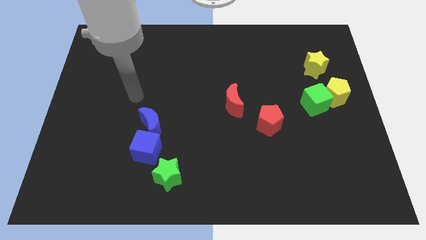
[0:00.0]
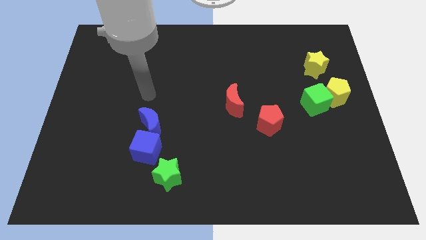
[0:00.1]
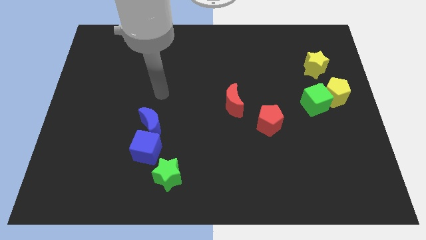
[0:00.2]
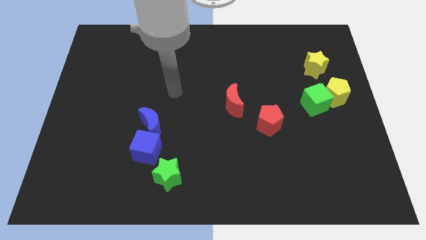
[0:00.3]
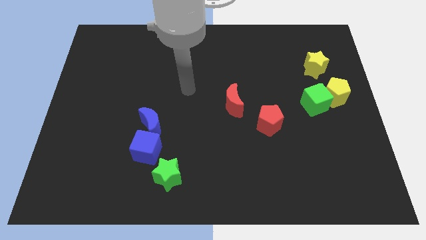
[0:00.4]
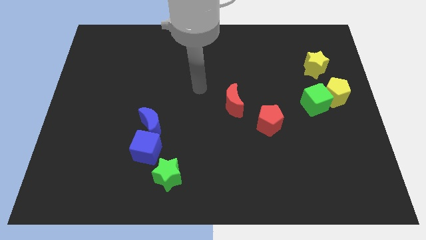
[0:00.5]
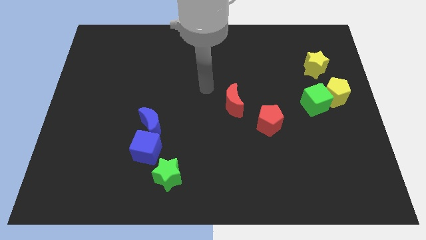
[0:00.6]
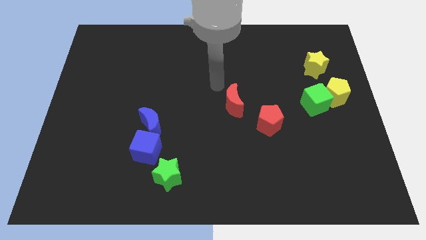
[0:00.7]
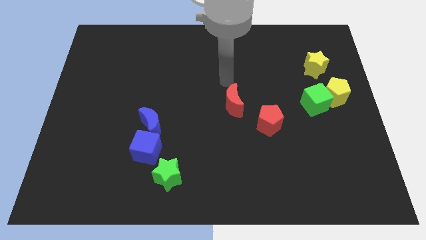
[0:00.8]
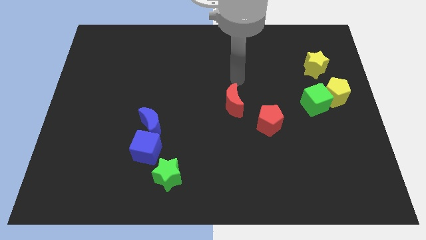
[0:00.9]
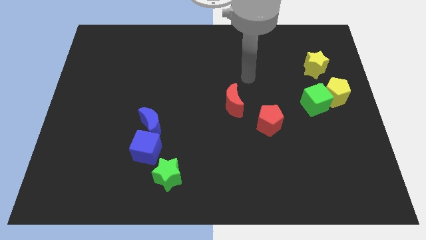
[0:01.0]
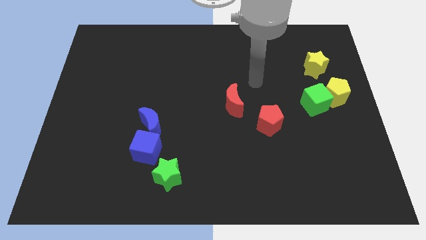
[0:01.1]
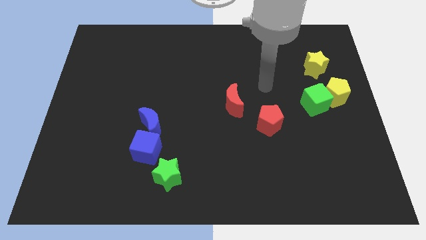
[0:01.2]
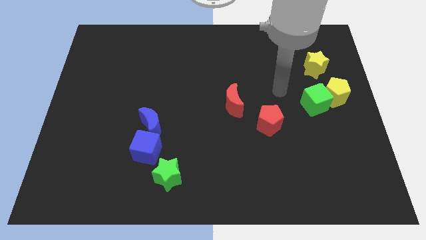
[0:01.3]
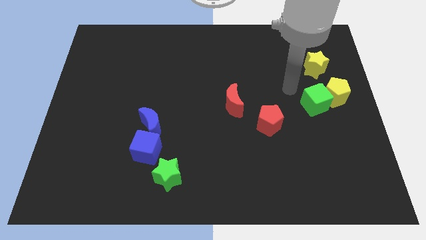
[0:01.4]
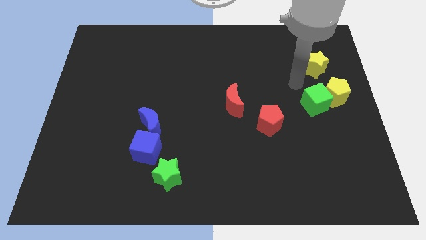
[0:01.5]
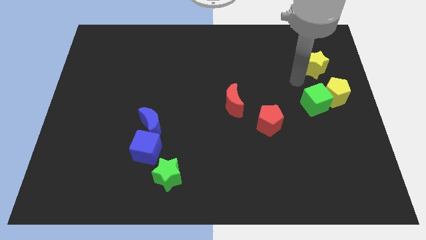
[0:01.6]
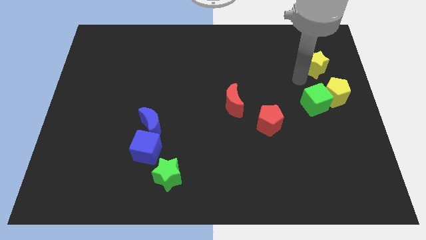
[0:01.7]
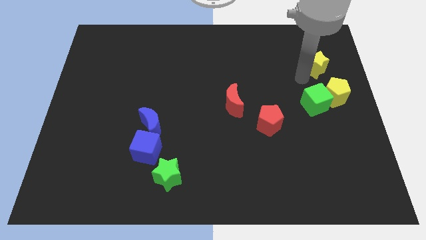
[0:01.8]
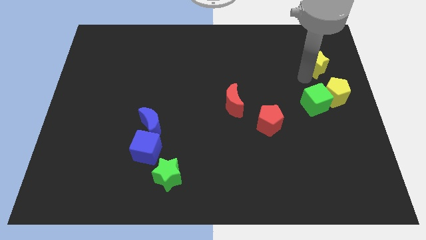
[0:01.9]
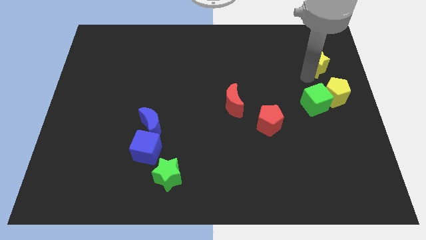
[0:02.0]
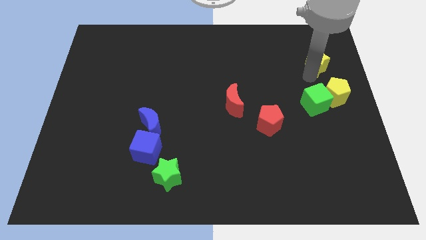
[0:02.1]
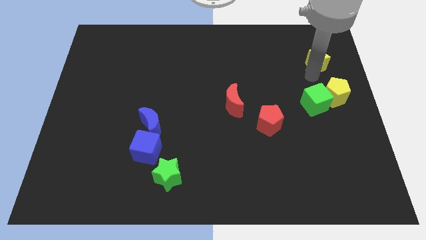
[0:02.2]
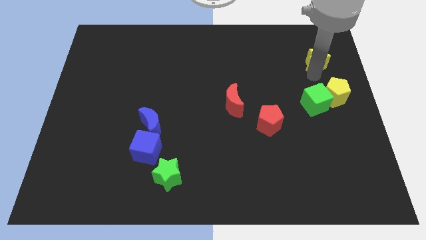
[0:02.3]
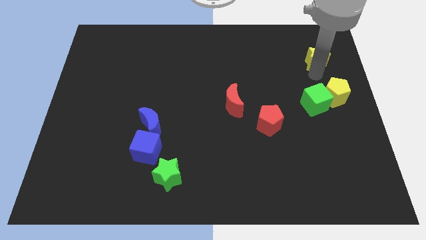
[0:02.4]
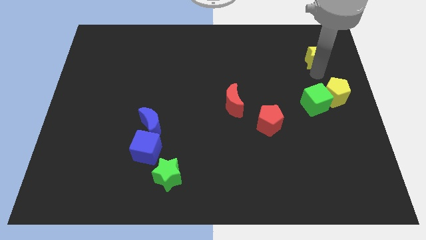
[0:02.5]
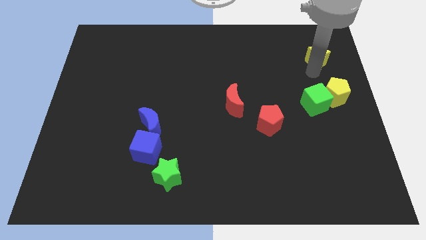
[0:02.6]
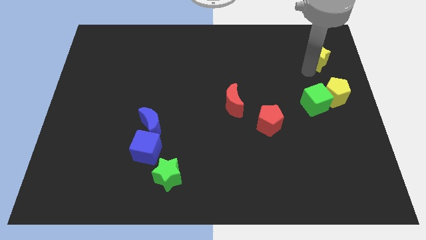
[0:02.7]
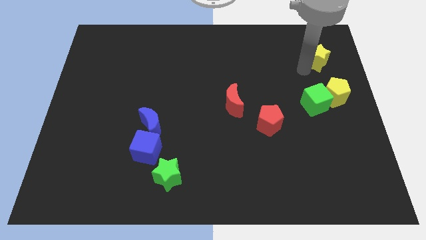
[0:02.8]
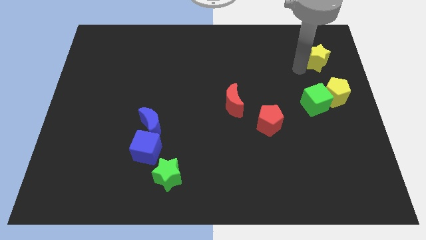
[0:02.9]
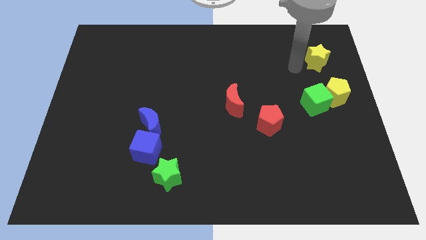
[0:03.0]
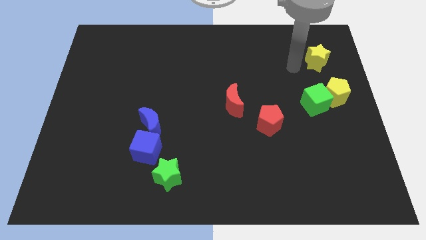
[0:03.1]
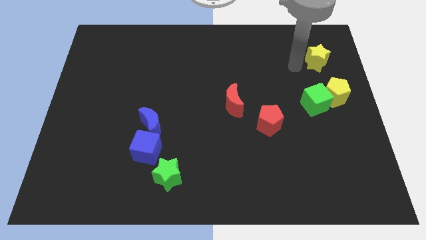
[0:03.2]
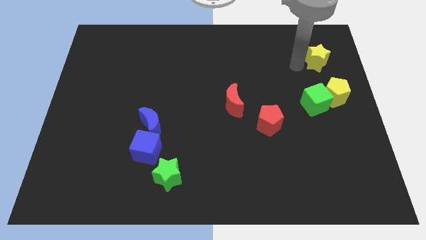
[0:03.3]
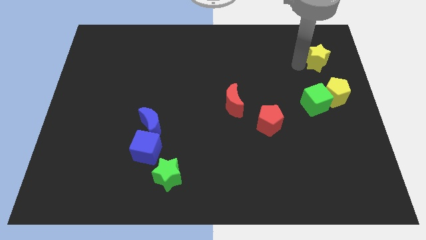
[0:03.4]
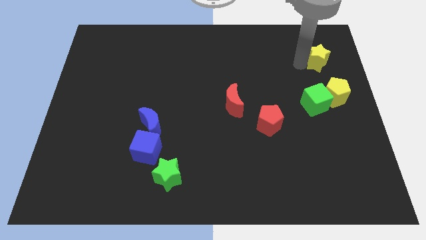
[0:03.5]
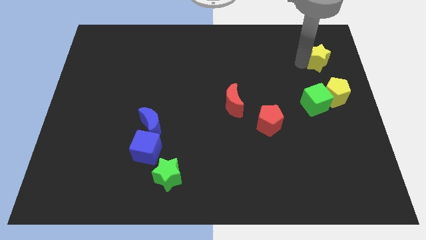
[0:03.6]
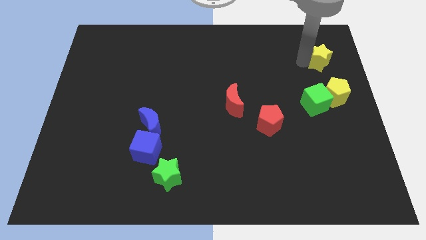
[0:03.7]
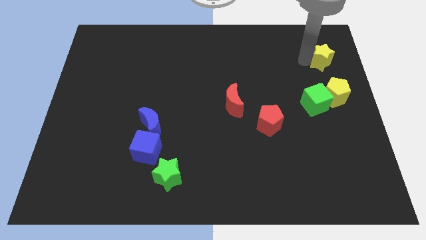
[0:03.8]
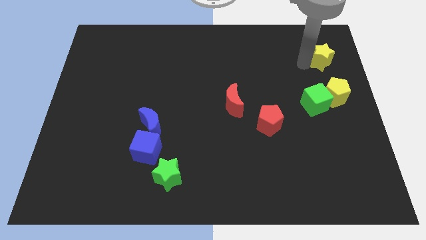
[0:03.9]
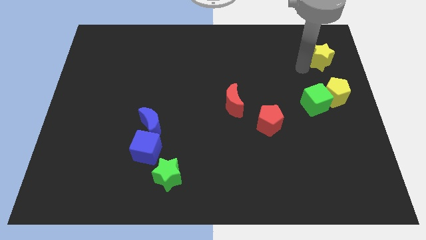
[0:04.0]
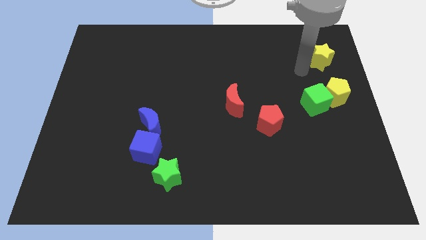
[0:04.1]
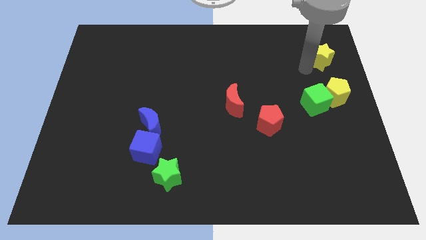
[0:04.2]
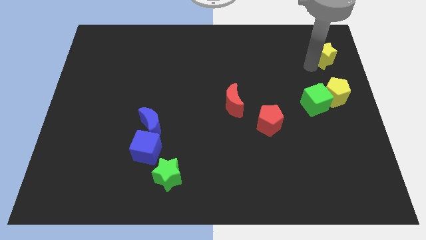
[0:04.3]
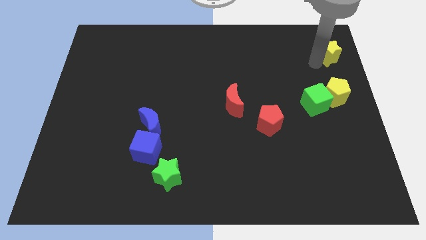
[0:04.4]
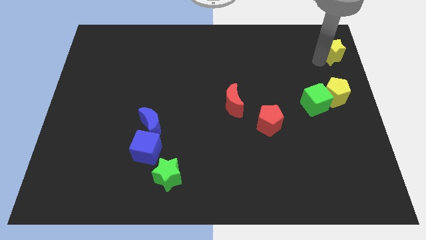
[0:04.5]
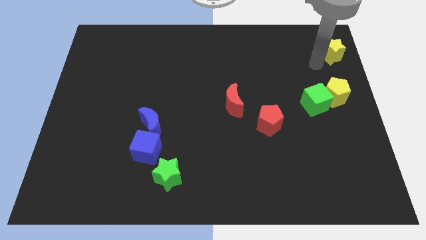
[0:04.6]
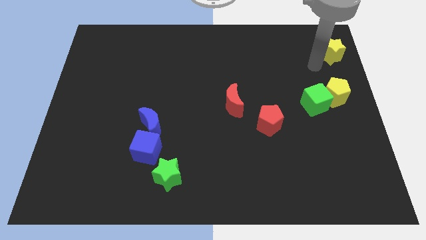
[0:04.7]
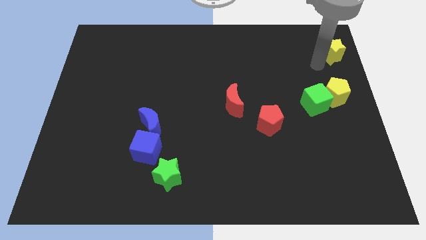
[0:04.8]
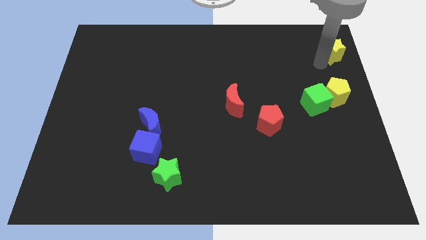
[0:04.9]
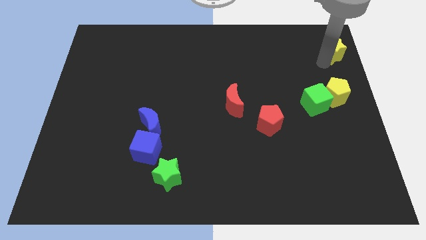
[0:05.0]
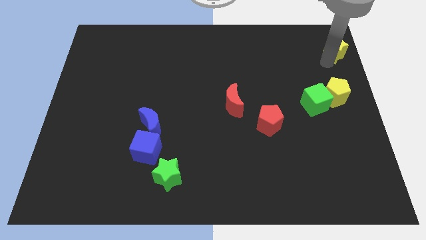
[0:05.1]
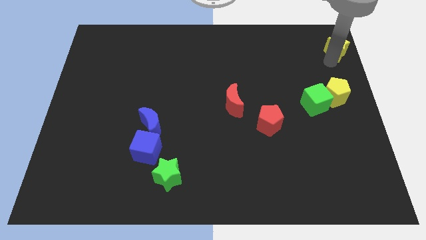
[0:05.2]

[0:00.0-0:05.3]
put the yellow star to the top right of the board

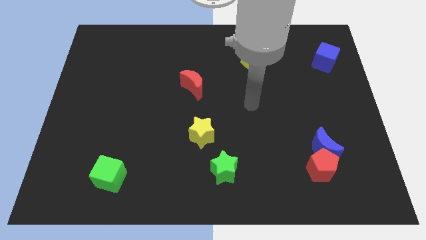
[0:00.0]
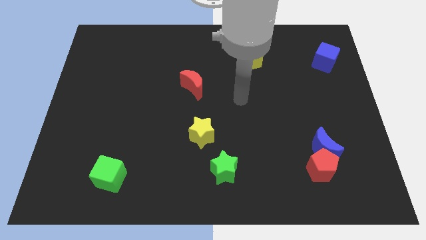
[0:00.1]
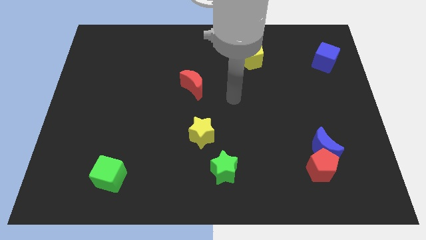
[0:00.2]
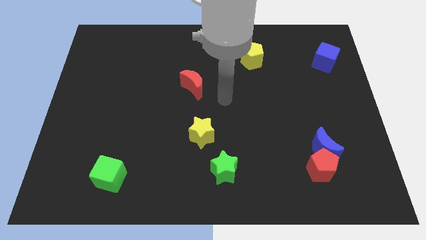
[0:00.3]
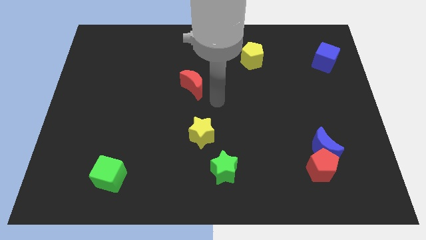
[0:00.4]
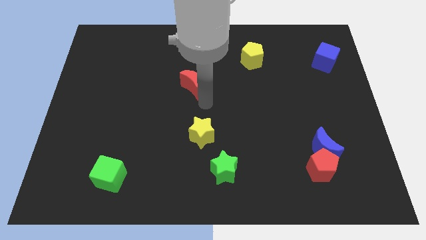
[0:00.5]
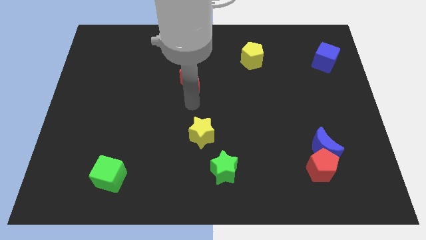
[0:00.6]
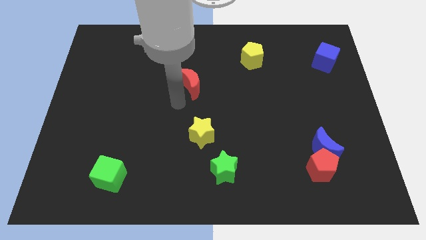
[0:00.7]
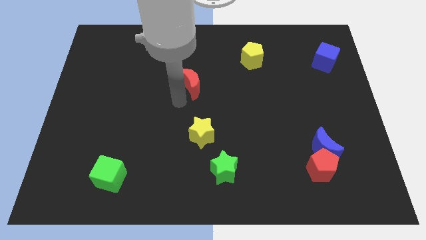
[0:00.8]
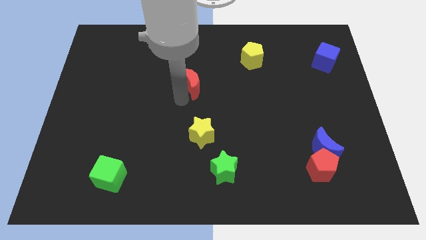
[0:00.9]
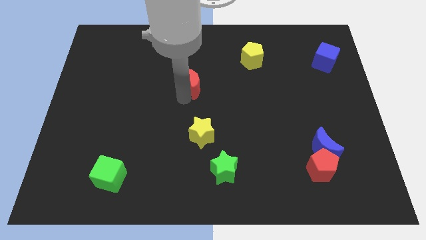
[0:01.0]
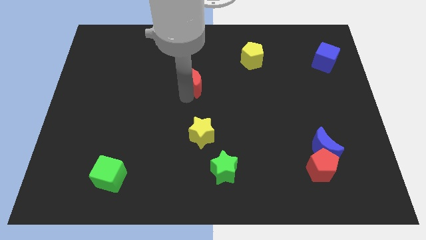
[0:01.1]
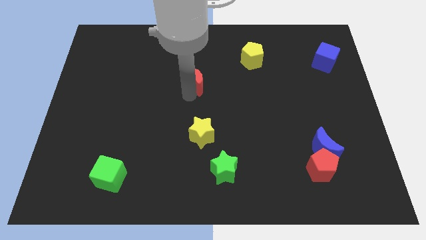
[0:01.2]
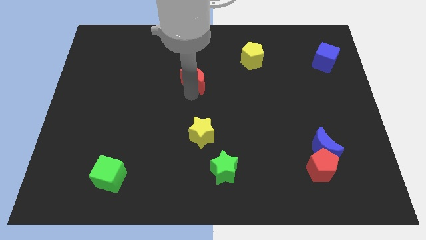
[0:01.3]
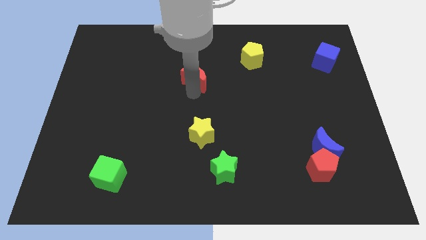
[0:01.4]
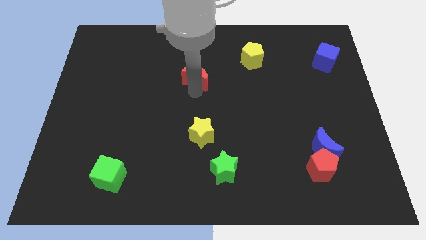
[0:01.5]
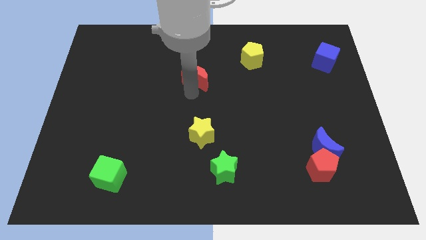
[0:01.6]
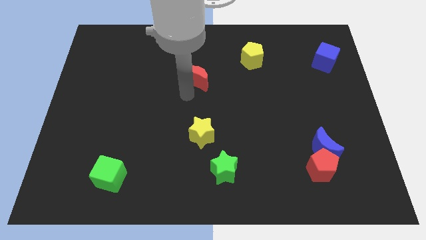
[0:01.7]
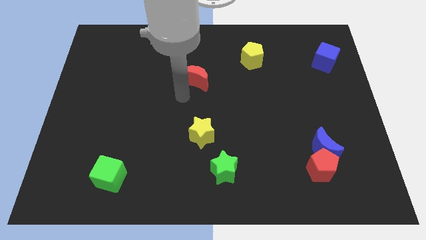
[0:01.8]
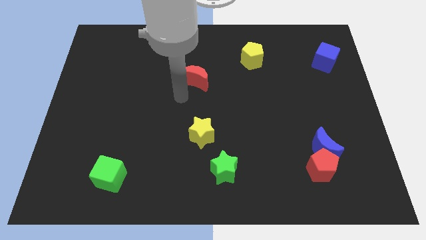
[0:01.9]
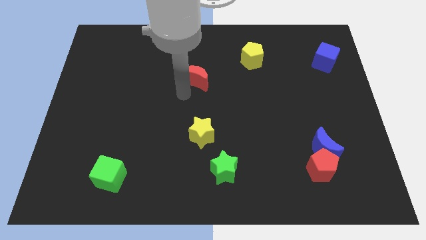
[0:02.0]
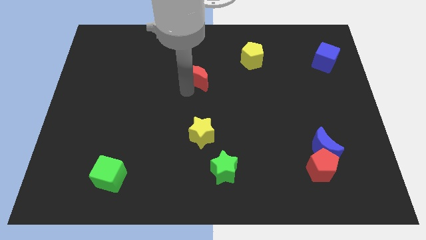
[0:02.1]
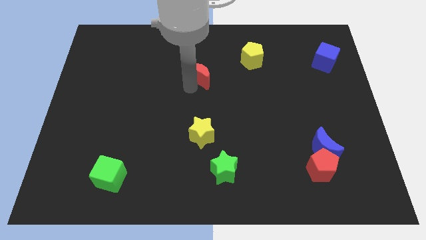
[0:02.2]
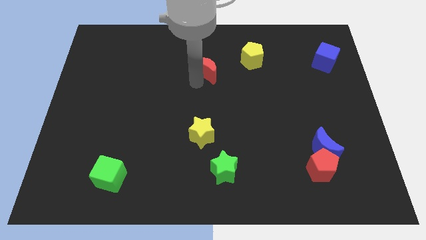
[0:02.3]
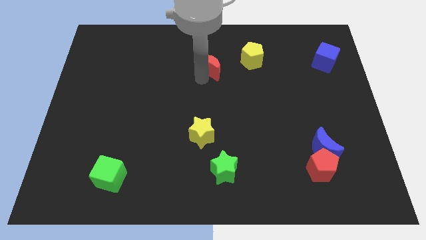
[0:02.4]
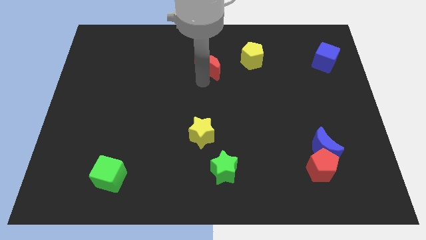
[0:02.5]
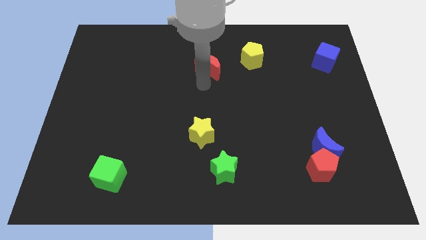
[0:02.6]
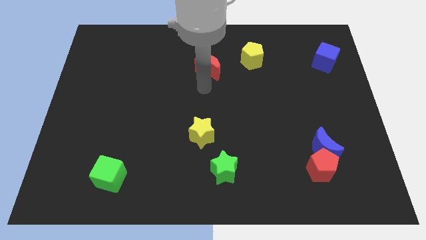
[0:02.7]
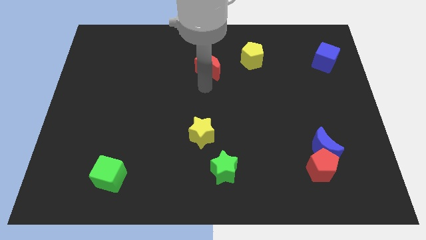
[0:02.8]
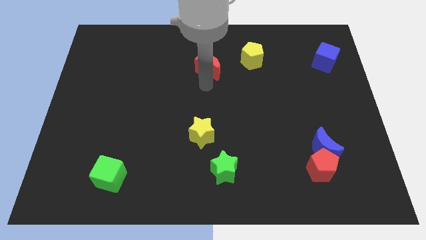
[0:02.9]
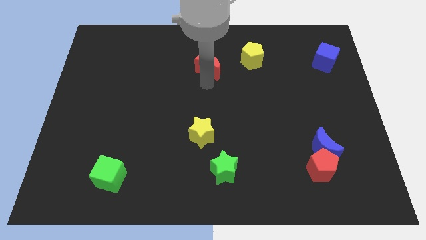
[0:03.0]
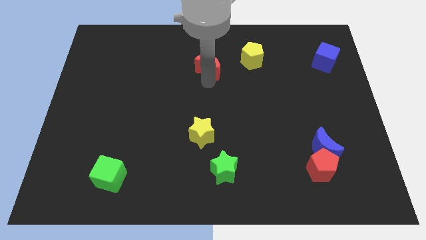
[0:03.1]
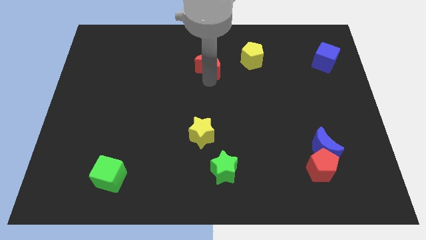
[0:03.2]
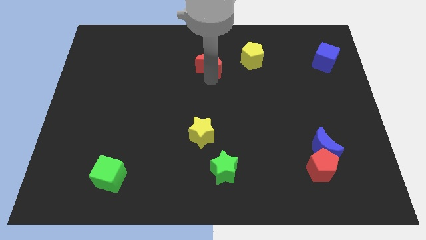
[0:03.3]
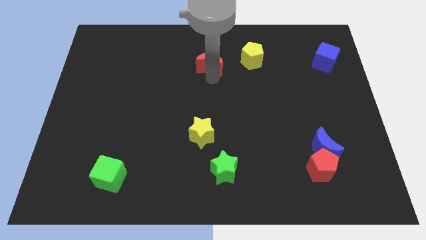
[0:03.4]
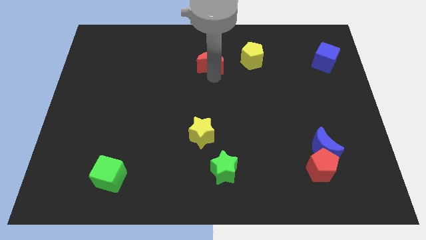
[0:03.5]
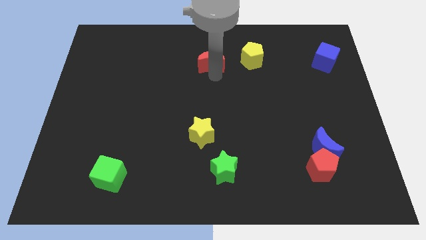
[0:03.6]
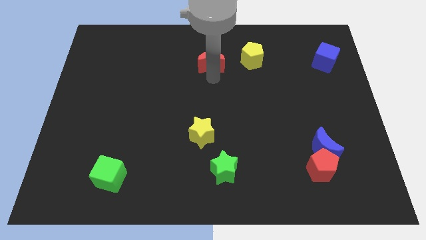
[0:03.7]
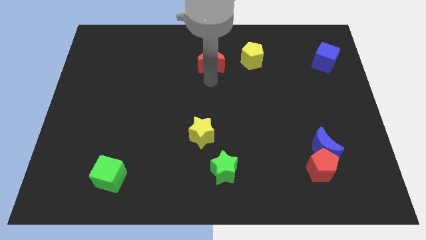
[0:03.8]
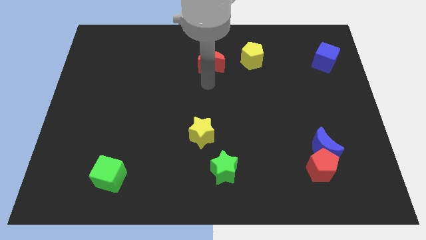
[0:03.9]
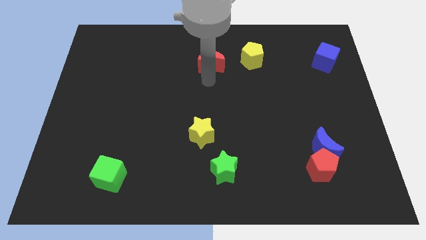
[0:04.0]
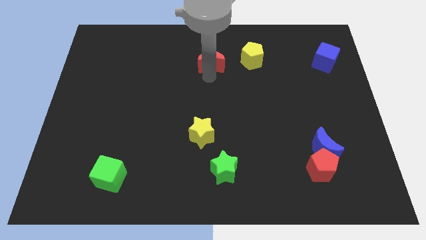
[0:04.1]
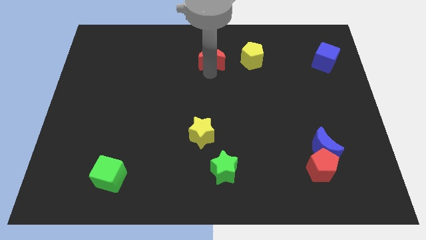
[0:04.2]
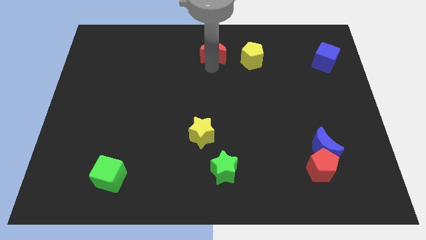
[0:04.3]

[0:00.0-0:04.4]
move the red moon to the top side
